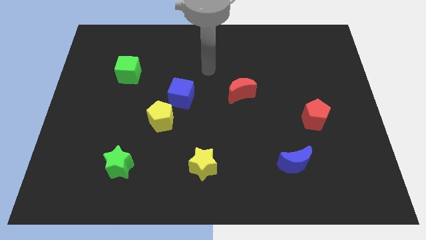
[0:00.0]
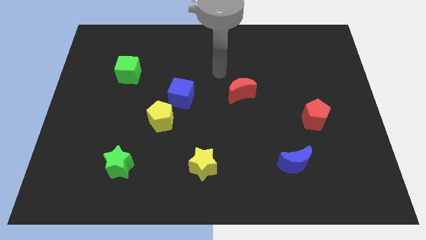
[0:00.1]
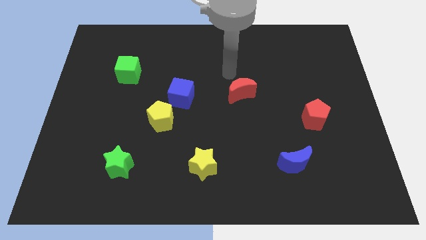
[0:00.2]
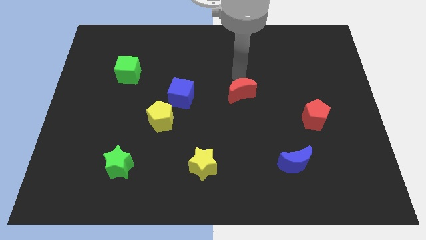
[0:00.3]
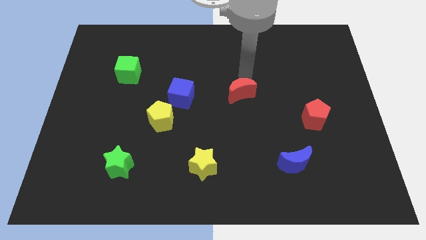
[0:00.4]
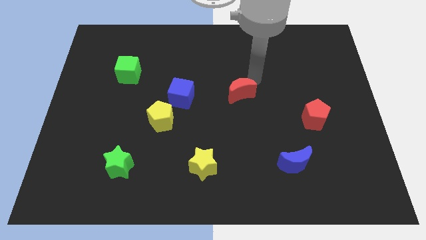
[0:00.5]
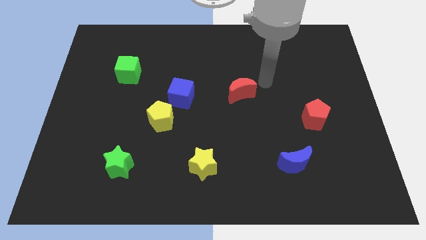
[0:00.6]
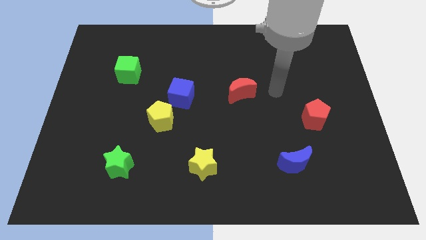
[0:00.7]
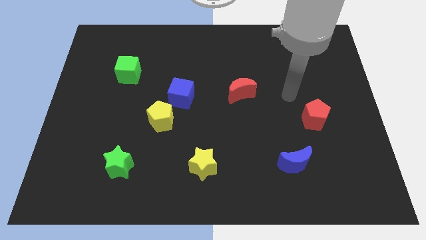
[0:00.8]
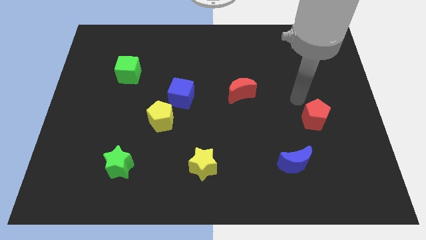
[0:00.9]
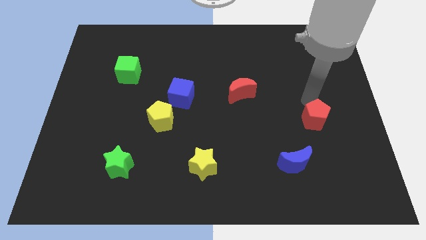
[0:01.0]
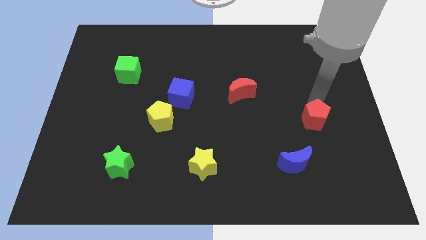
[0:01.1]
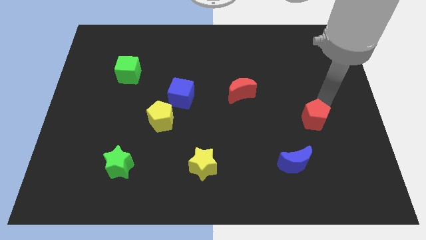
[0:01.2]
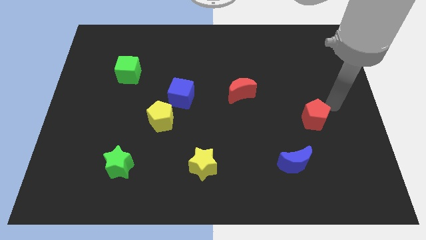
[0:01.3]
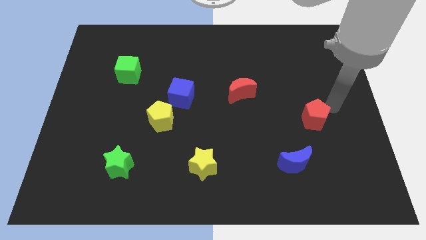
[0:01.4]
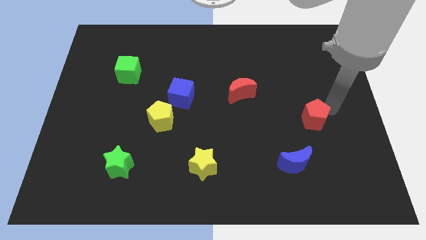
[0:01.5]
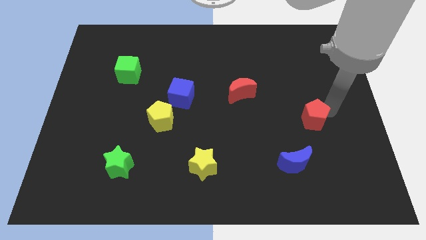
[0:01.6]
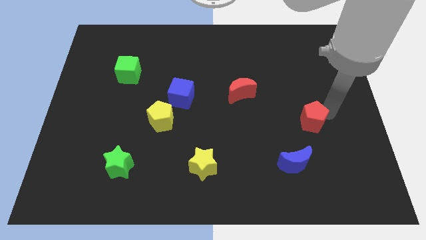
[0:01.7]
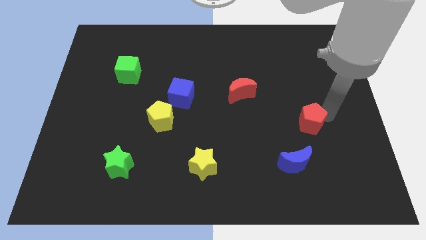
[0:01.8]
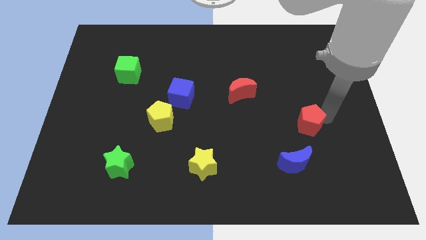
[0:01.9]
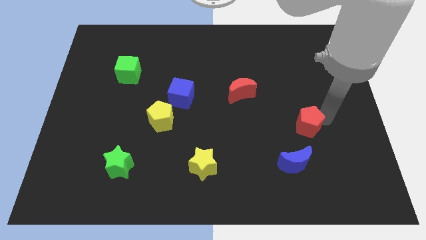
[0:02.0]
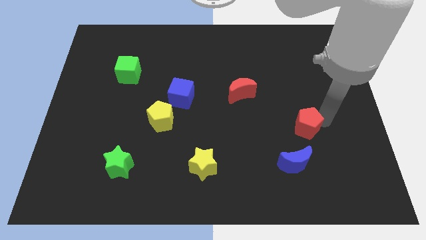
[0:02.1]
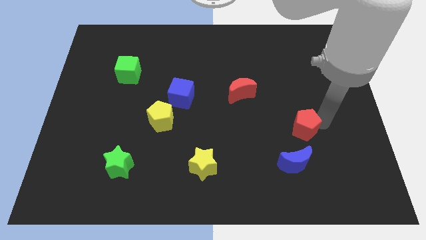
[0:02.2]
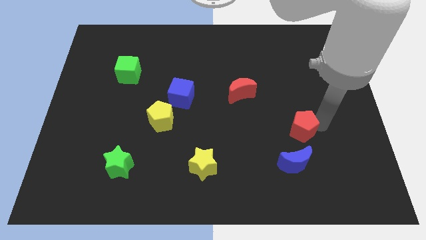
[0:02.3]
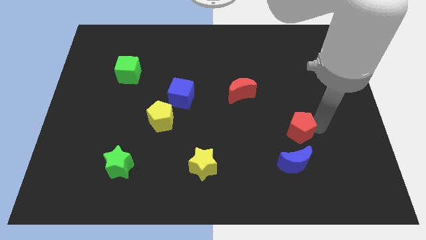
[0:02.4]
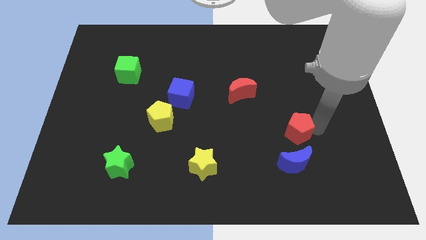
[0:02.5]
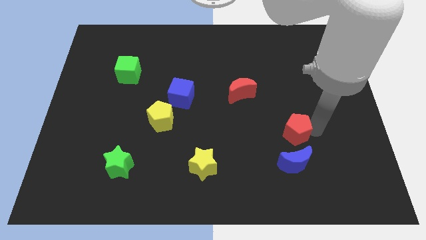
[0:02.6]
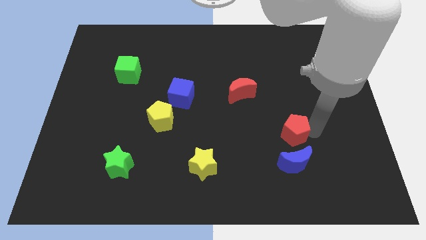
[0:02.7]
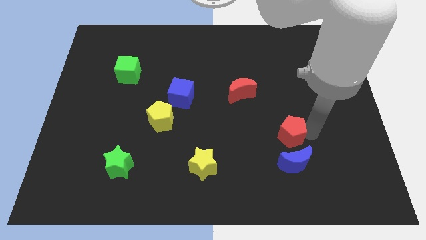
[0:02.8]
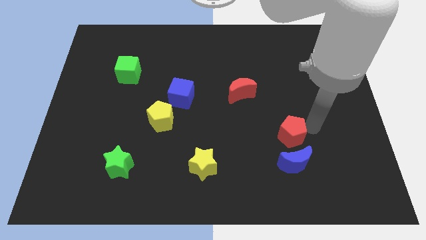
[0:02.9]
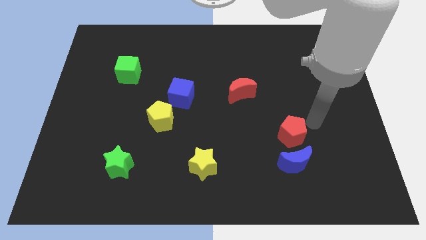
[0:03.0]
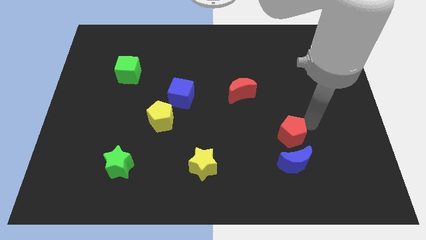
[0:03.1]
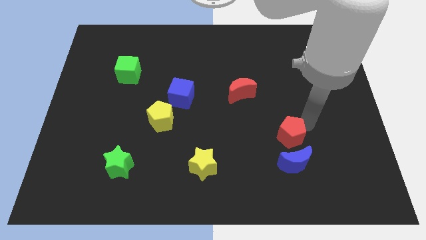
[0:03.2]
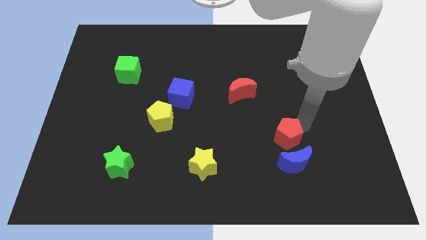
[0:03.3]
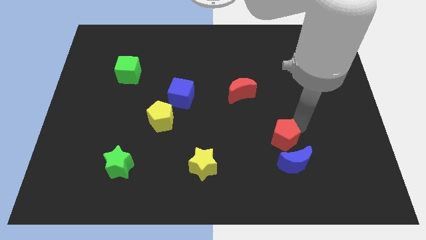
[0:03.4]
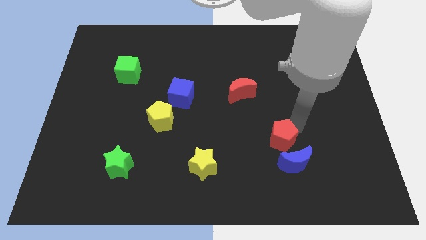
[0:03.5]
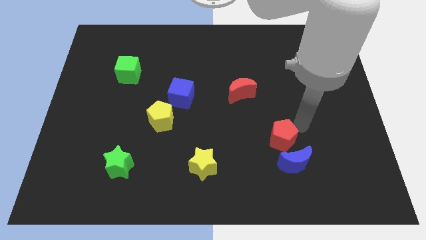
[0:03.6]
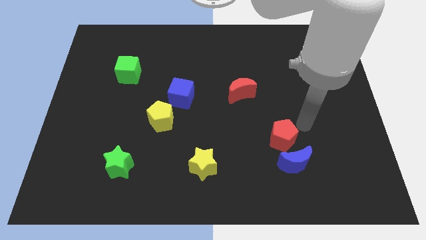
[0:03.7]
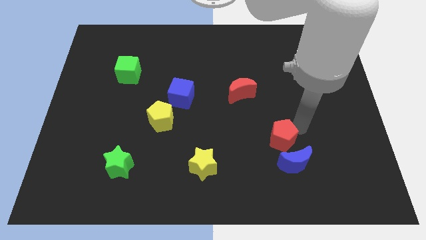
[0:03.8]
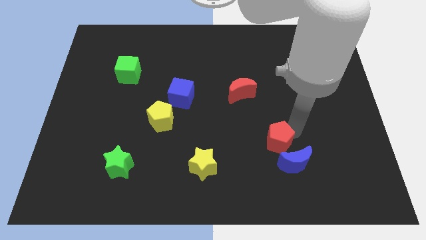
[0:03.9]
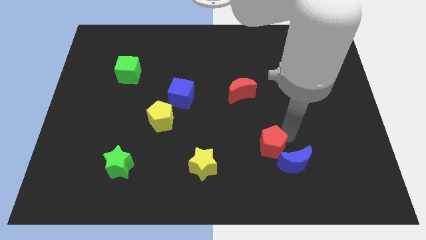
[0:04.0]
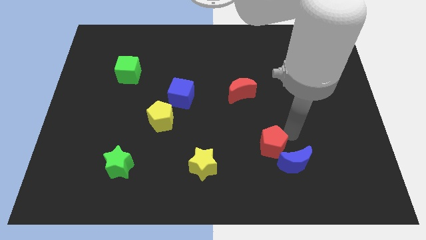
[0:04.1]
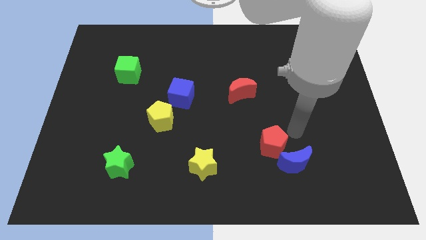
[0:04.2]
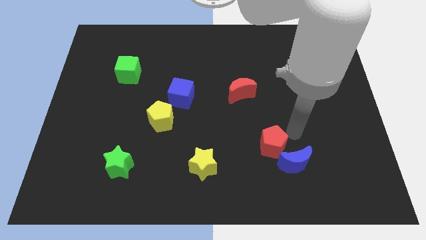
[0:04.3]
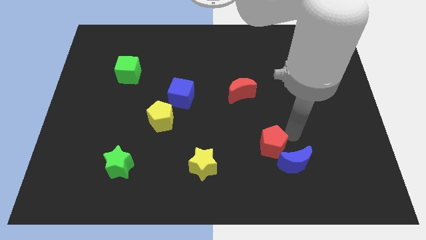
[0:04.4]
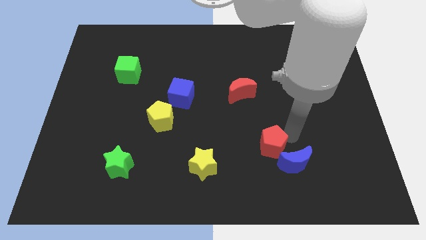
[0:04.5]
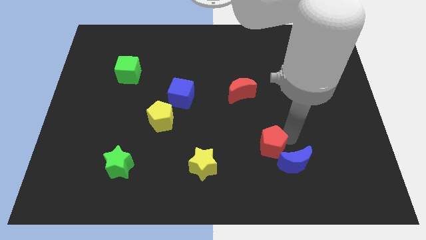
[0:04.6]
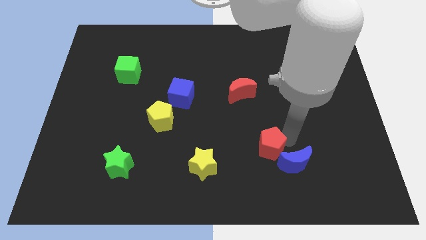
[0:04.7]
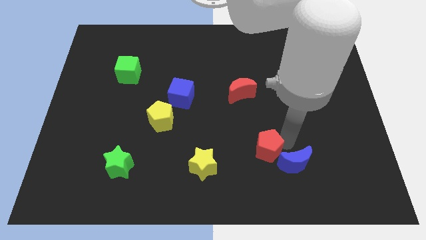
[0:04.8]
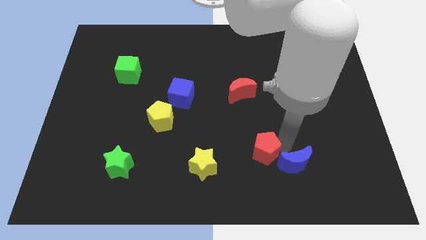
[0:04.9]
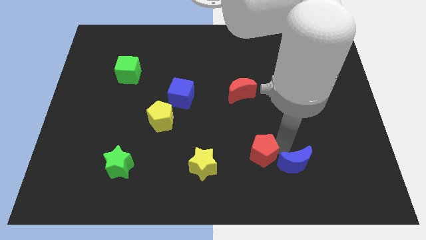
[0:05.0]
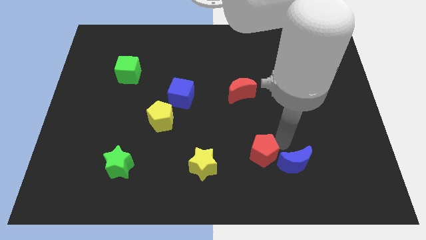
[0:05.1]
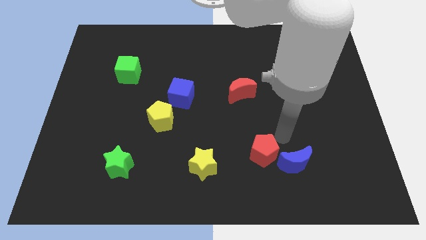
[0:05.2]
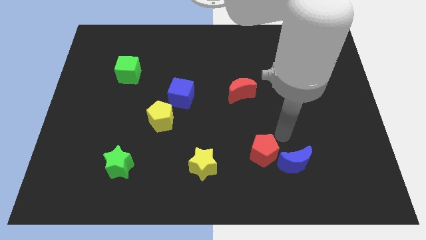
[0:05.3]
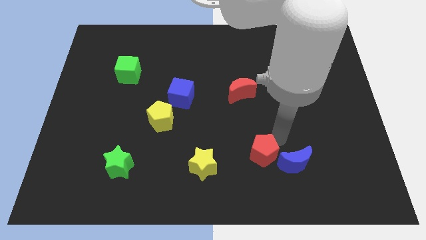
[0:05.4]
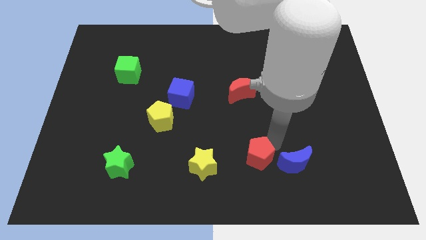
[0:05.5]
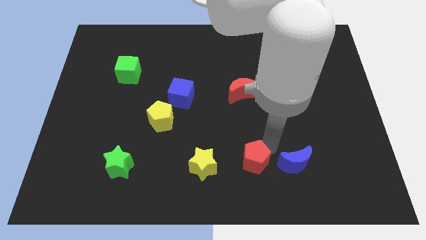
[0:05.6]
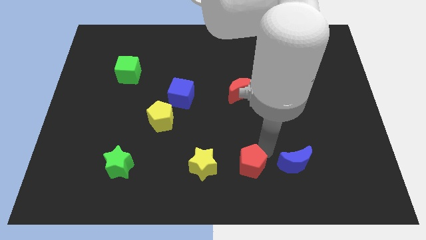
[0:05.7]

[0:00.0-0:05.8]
push the red pentagon to the bottom side
